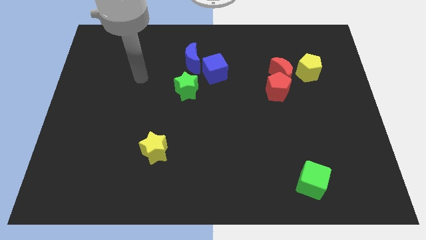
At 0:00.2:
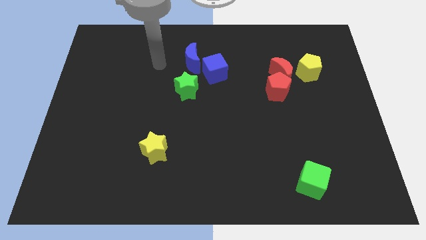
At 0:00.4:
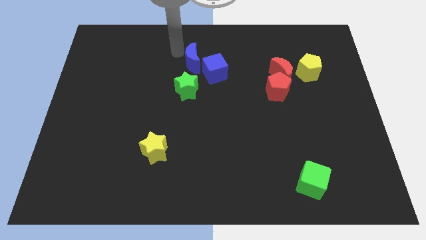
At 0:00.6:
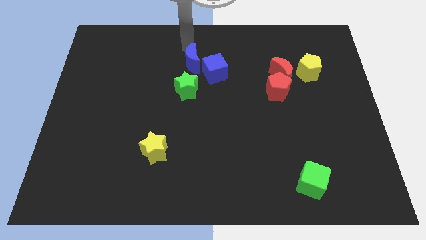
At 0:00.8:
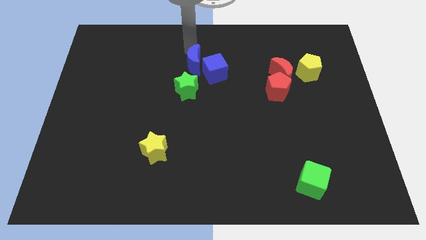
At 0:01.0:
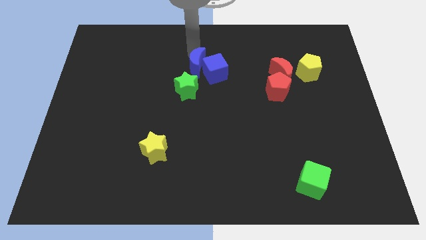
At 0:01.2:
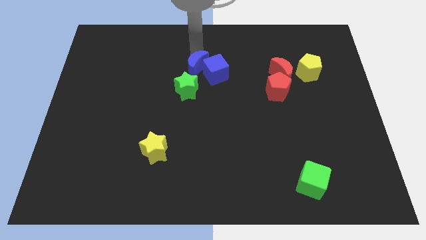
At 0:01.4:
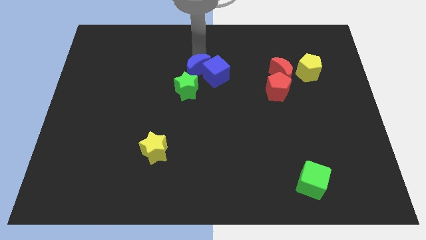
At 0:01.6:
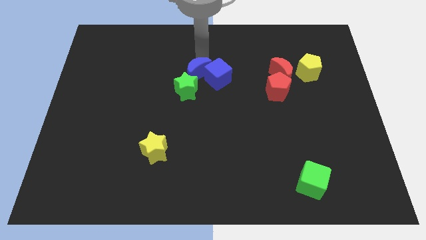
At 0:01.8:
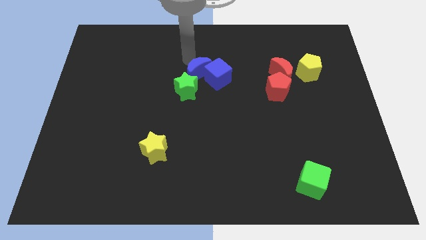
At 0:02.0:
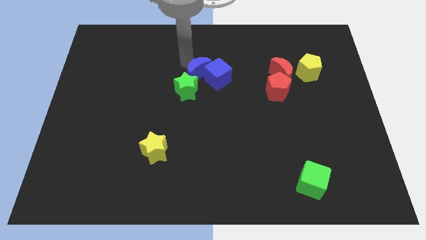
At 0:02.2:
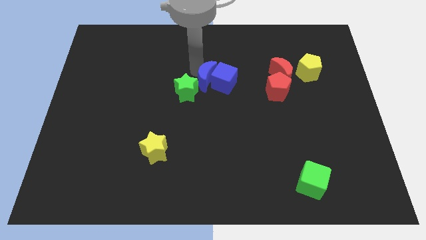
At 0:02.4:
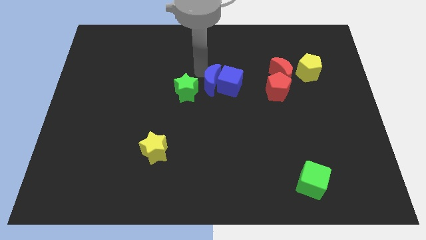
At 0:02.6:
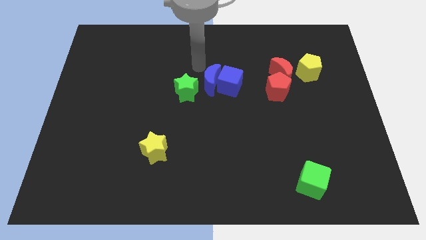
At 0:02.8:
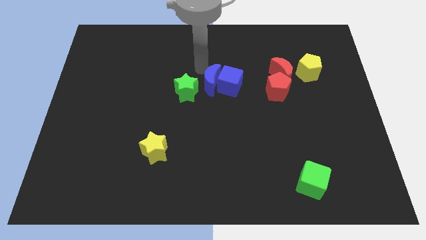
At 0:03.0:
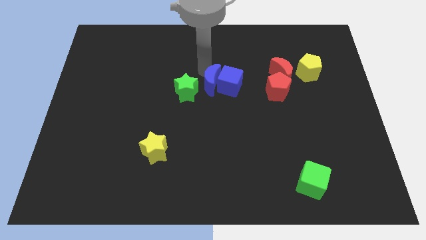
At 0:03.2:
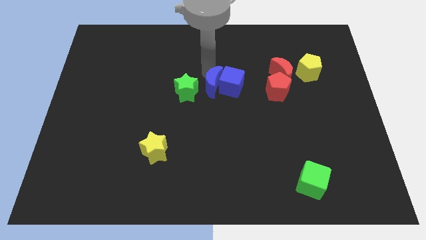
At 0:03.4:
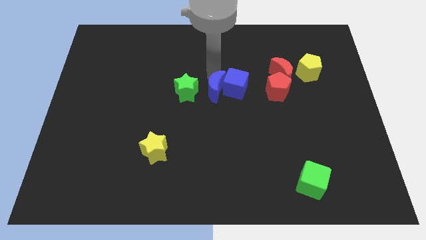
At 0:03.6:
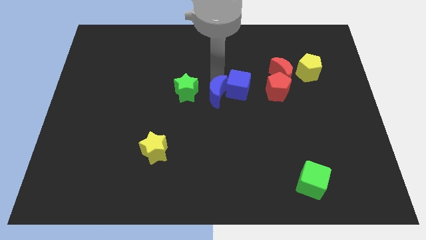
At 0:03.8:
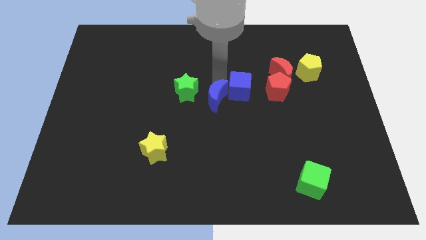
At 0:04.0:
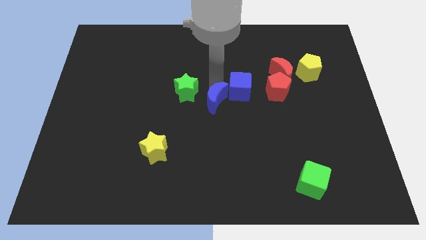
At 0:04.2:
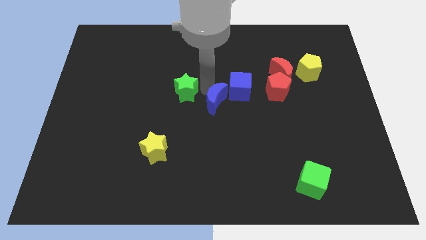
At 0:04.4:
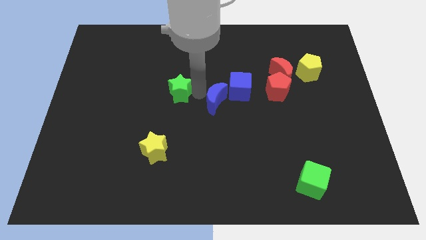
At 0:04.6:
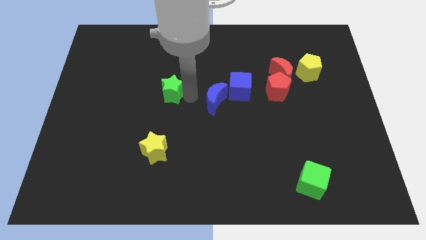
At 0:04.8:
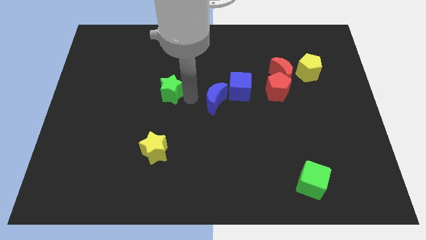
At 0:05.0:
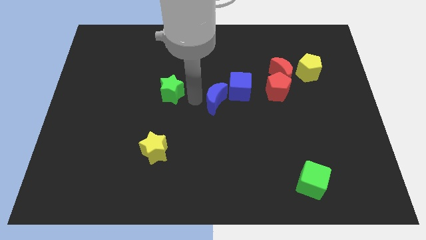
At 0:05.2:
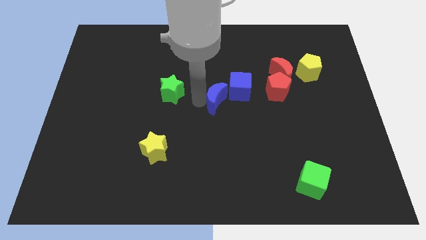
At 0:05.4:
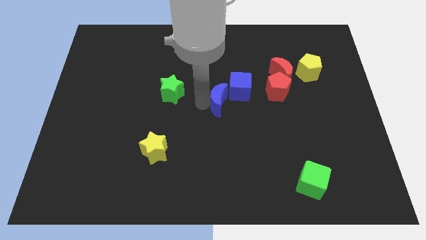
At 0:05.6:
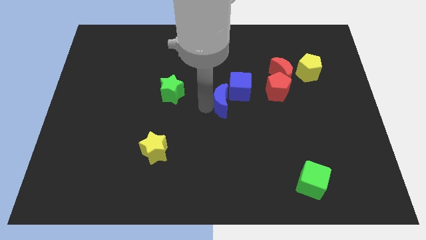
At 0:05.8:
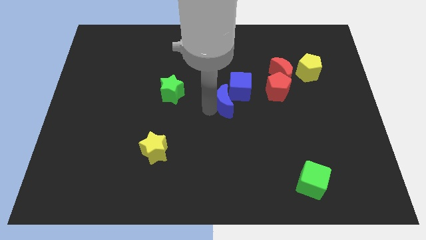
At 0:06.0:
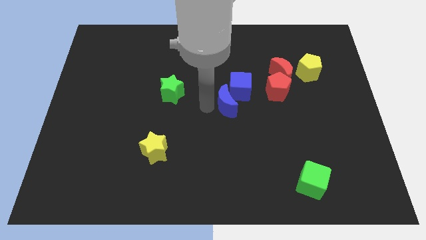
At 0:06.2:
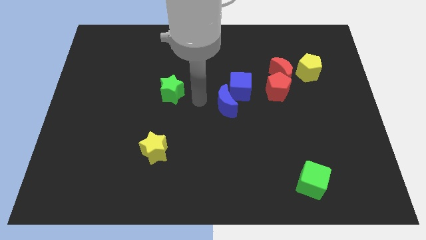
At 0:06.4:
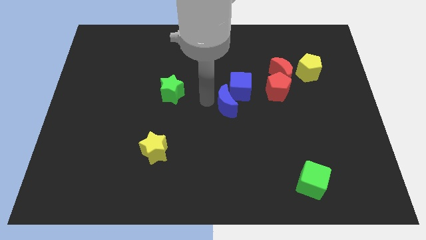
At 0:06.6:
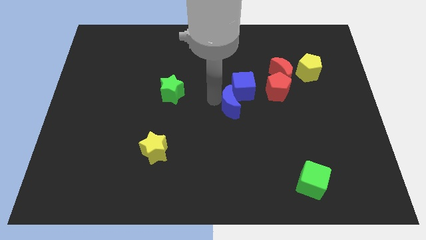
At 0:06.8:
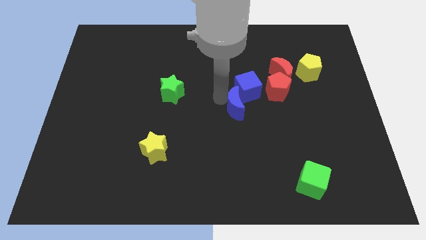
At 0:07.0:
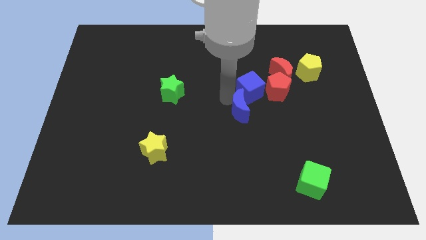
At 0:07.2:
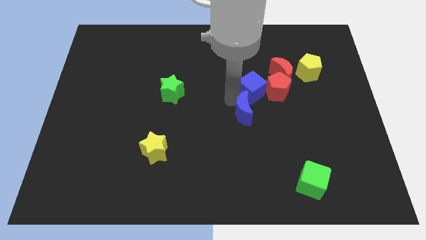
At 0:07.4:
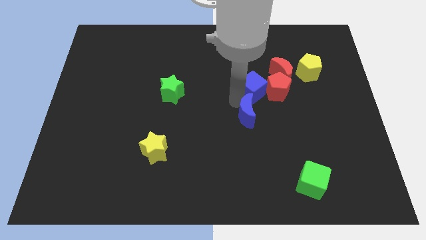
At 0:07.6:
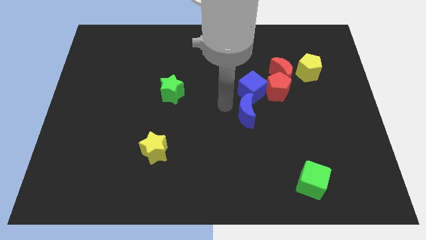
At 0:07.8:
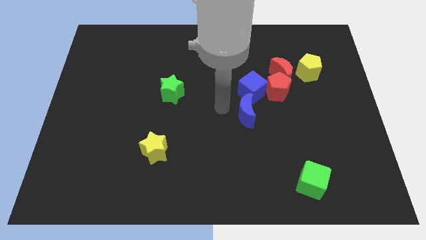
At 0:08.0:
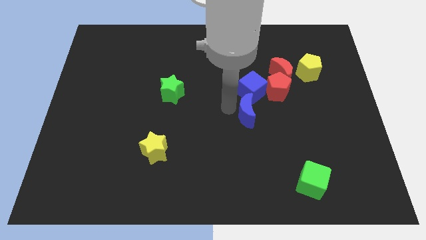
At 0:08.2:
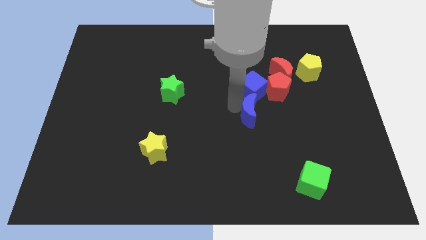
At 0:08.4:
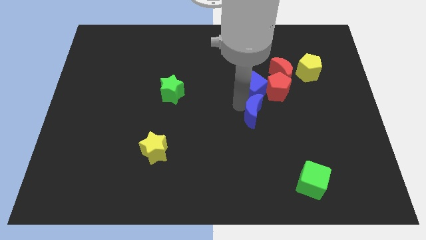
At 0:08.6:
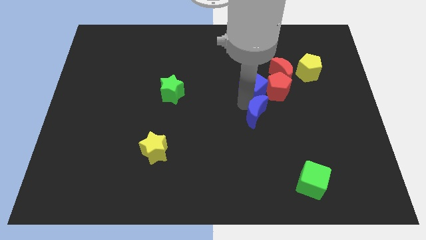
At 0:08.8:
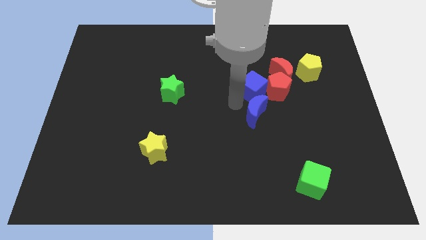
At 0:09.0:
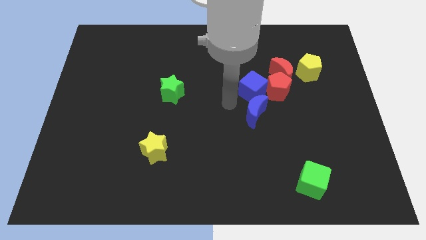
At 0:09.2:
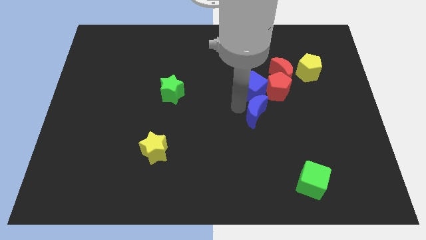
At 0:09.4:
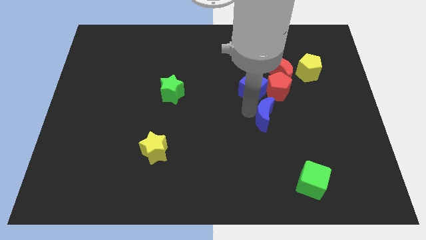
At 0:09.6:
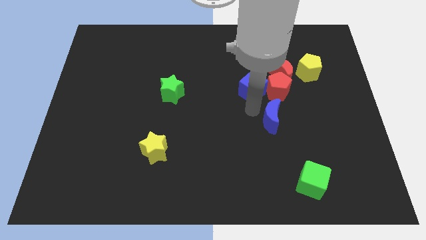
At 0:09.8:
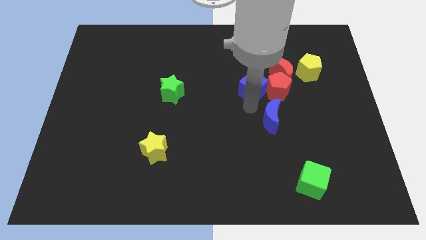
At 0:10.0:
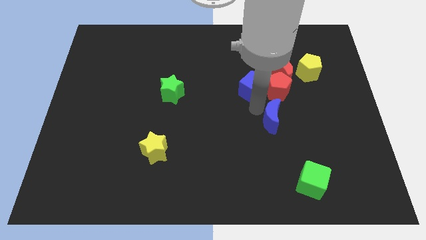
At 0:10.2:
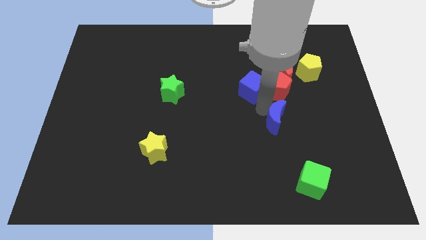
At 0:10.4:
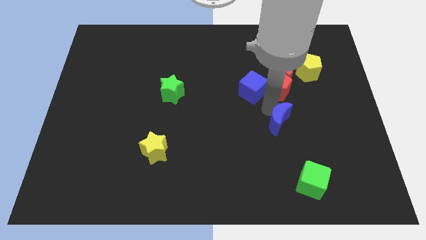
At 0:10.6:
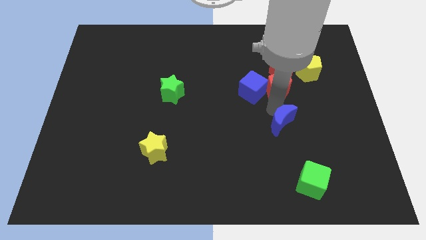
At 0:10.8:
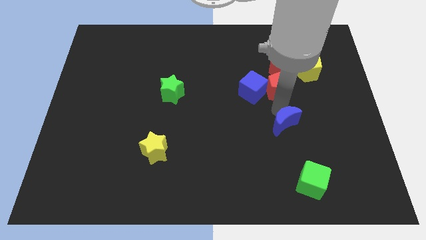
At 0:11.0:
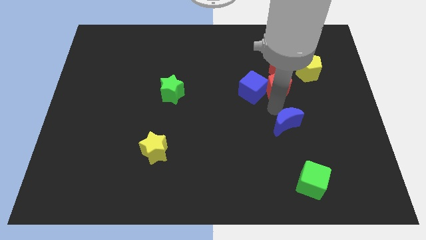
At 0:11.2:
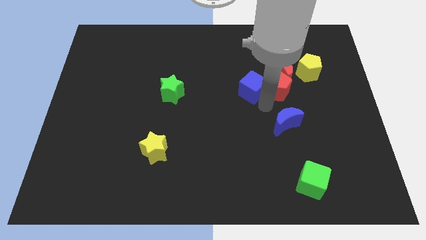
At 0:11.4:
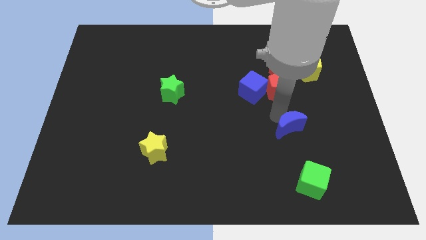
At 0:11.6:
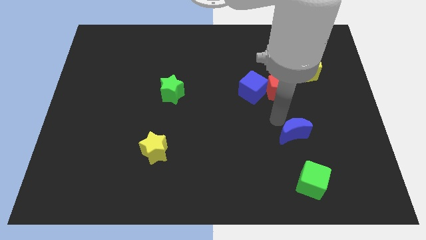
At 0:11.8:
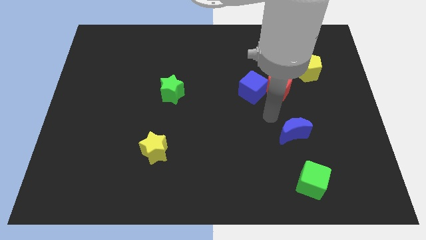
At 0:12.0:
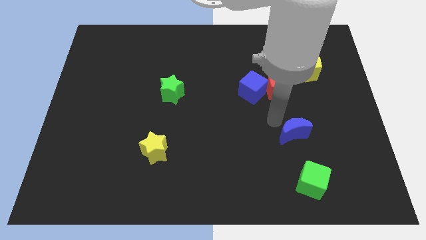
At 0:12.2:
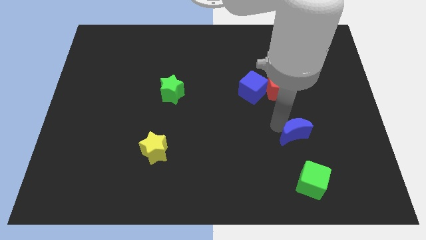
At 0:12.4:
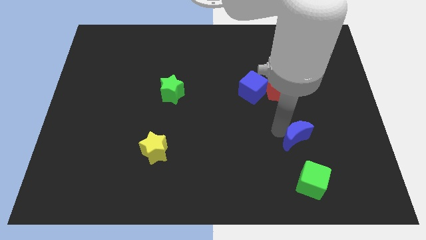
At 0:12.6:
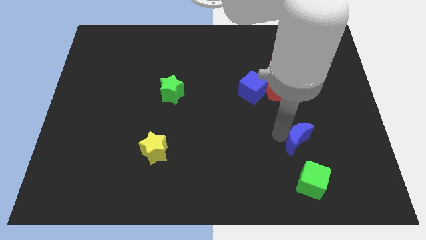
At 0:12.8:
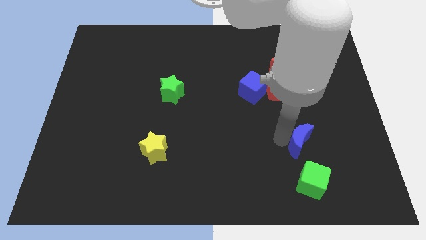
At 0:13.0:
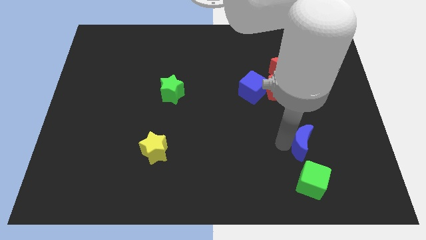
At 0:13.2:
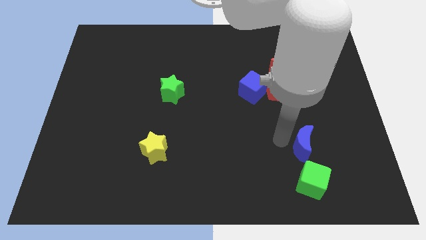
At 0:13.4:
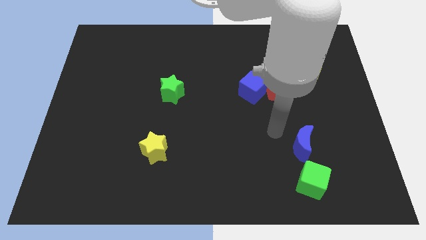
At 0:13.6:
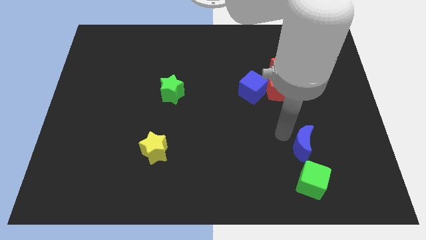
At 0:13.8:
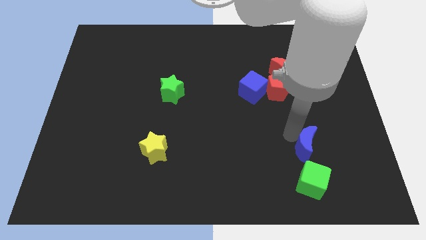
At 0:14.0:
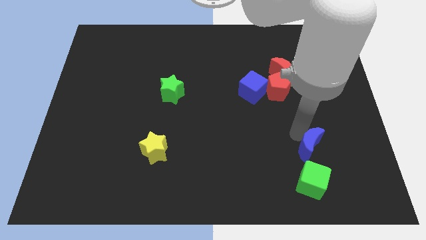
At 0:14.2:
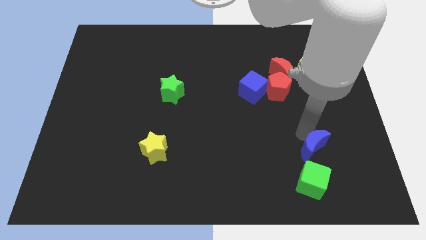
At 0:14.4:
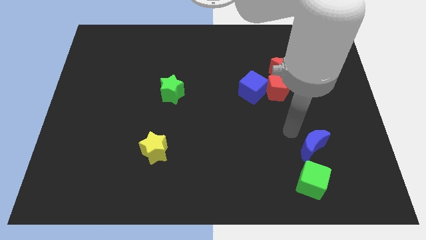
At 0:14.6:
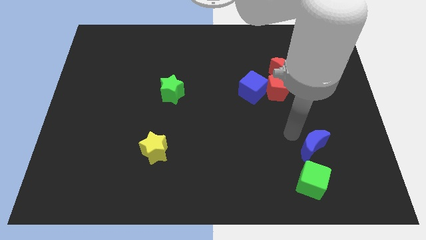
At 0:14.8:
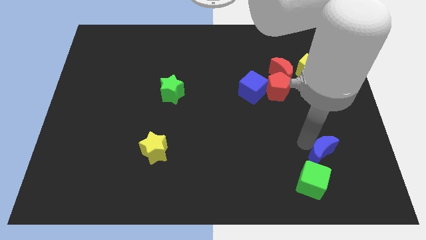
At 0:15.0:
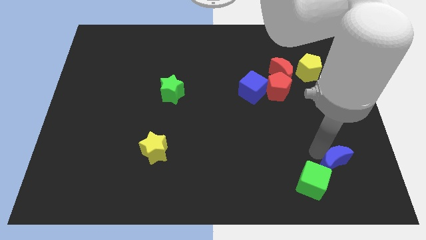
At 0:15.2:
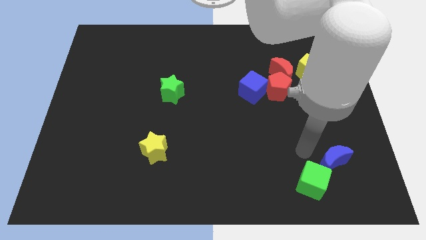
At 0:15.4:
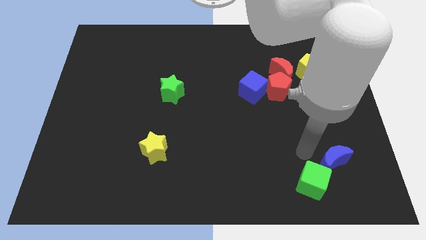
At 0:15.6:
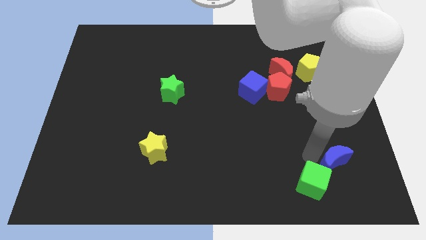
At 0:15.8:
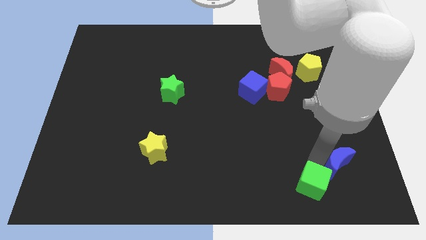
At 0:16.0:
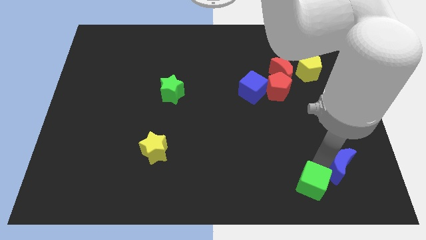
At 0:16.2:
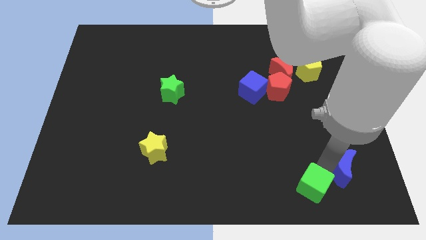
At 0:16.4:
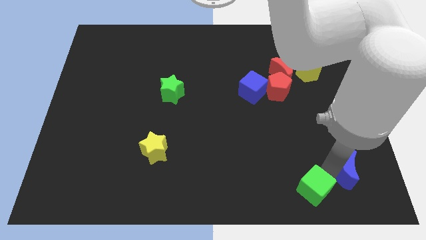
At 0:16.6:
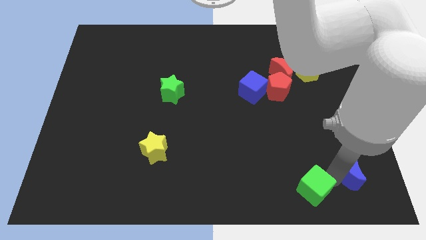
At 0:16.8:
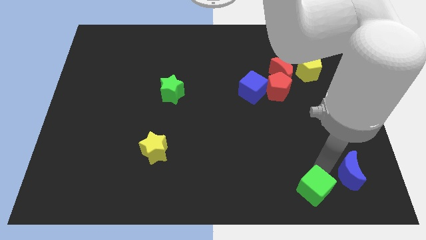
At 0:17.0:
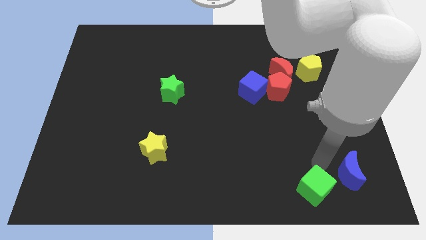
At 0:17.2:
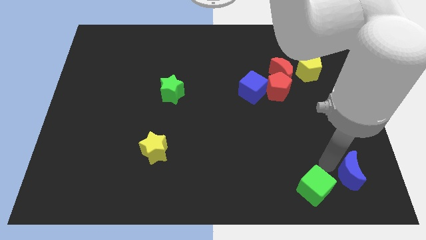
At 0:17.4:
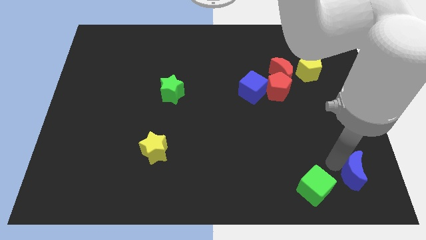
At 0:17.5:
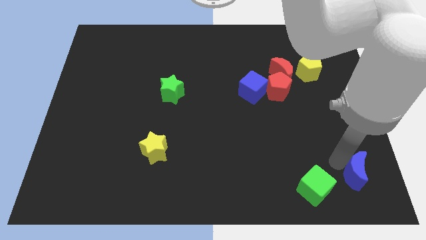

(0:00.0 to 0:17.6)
put the blue moon to the bottom right
